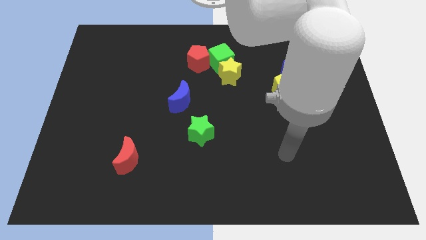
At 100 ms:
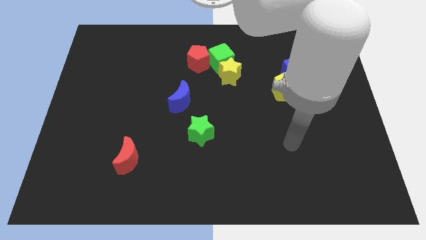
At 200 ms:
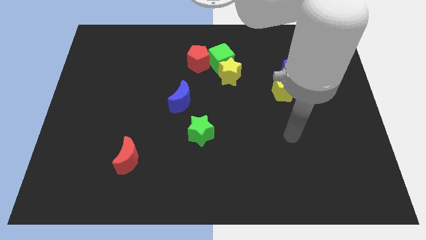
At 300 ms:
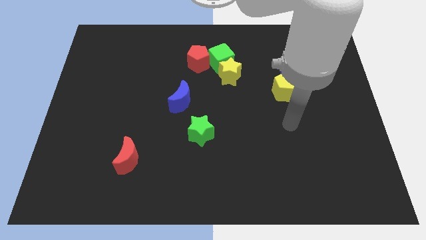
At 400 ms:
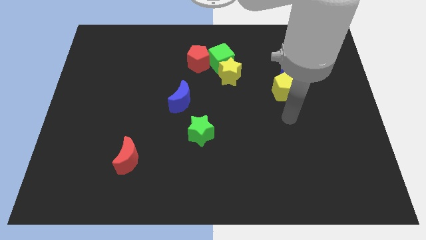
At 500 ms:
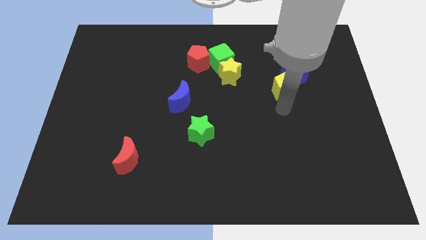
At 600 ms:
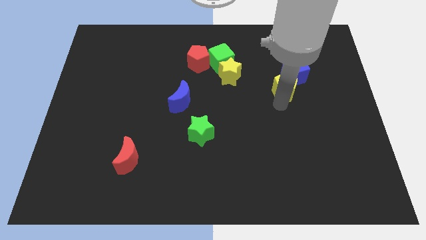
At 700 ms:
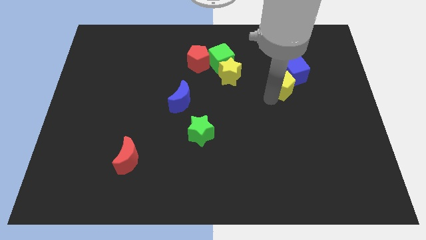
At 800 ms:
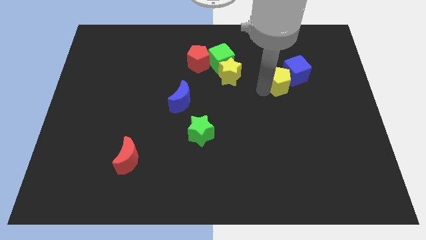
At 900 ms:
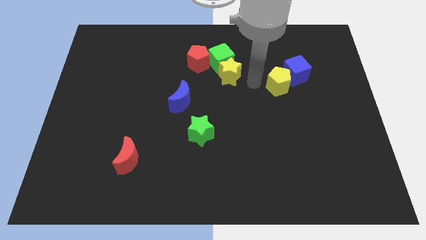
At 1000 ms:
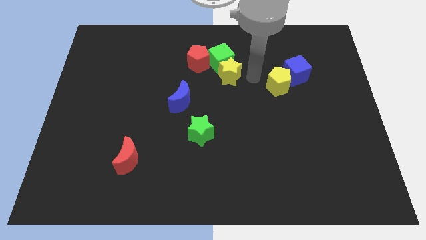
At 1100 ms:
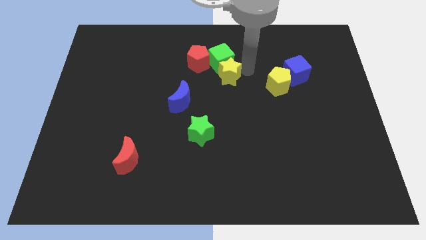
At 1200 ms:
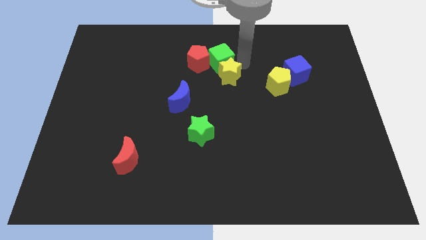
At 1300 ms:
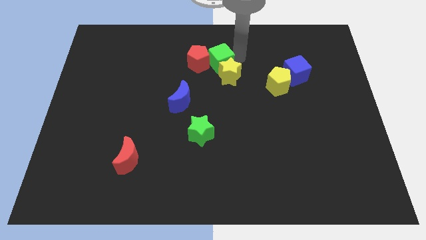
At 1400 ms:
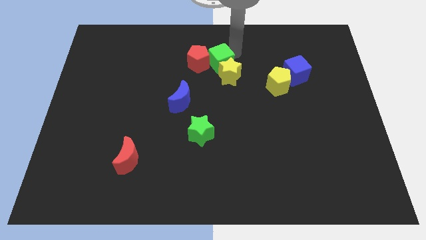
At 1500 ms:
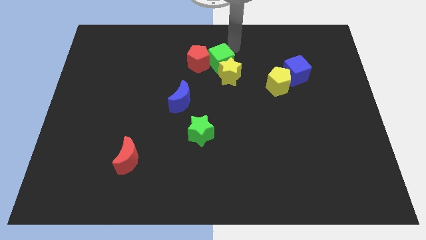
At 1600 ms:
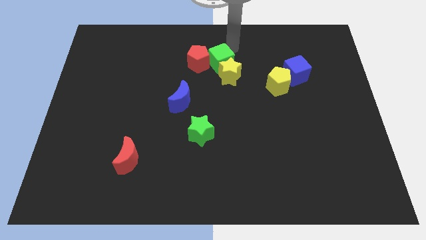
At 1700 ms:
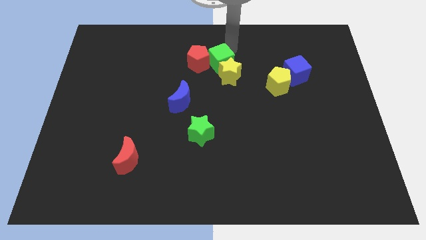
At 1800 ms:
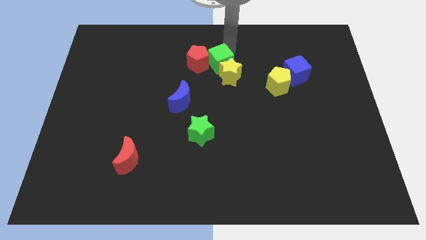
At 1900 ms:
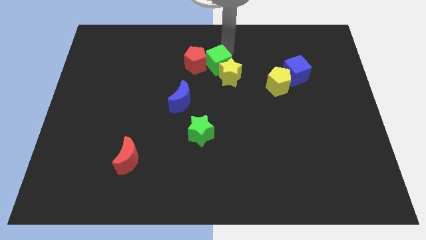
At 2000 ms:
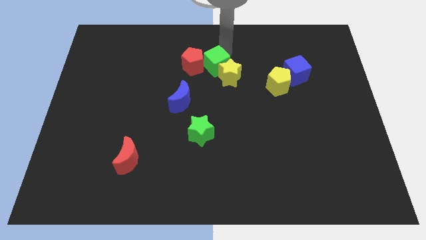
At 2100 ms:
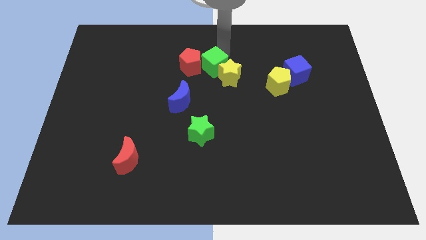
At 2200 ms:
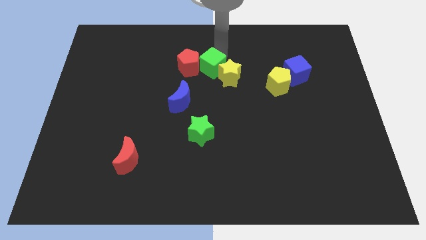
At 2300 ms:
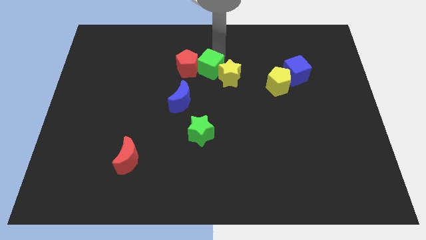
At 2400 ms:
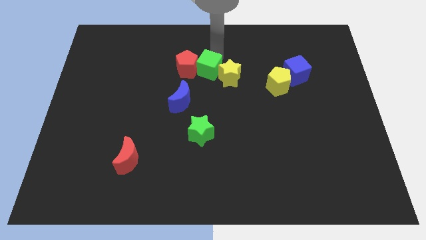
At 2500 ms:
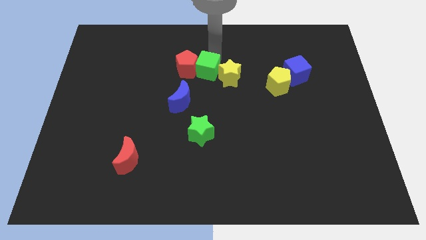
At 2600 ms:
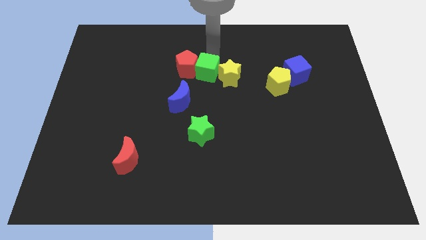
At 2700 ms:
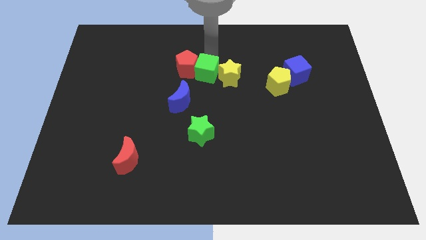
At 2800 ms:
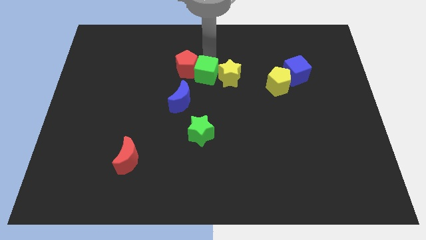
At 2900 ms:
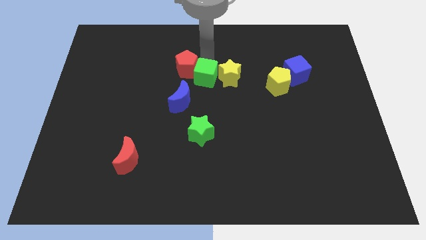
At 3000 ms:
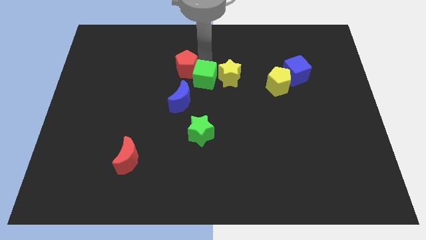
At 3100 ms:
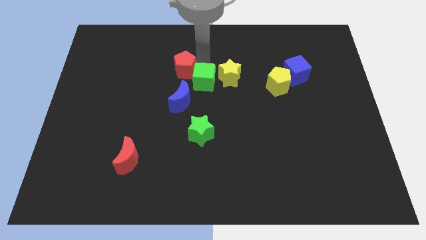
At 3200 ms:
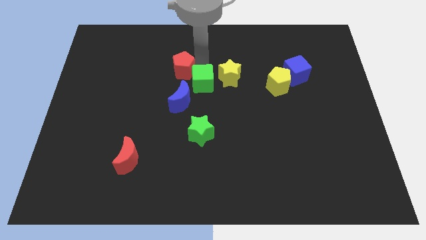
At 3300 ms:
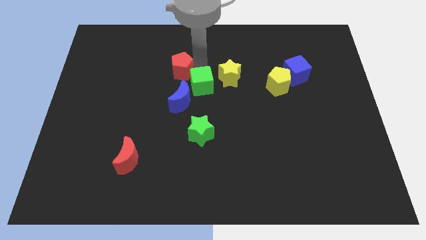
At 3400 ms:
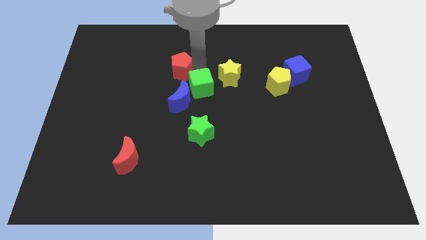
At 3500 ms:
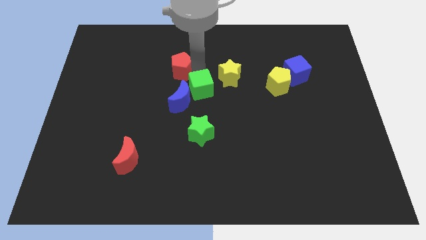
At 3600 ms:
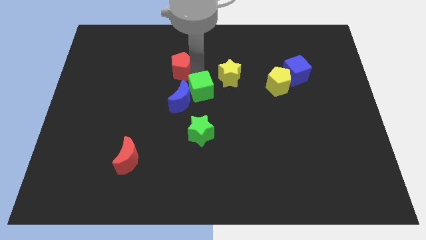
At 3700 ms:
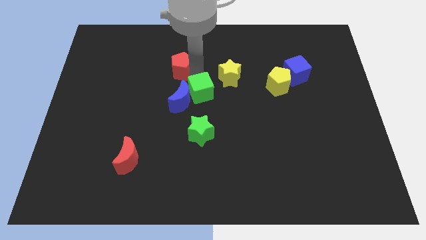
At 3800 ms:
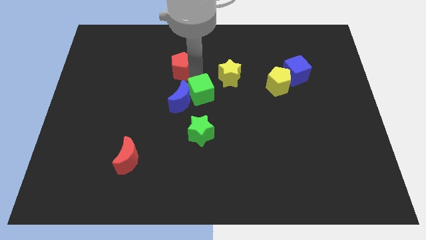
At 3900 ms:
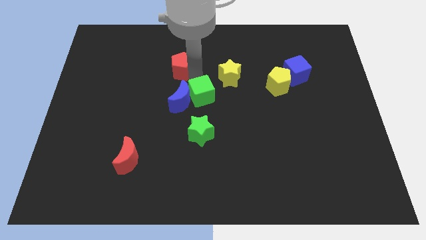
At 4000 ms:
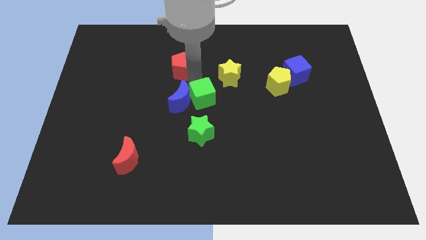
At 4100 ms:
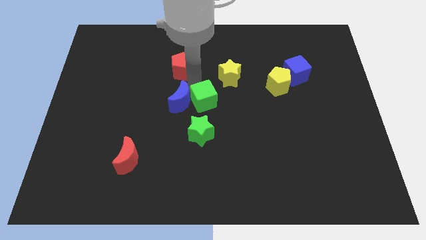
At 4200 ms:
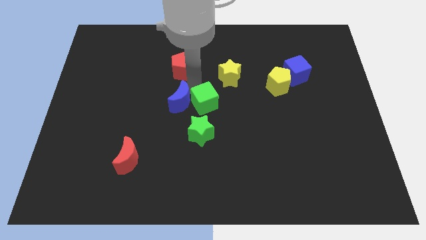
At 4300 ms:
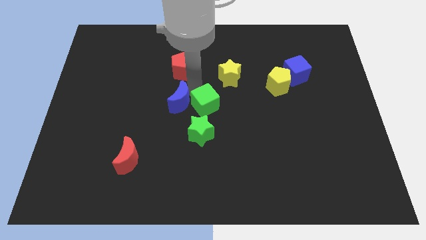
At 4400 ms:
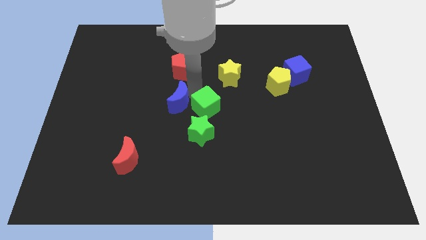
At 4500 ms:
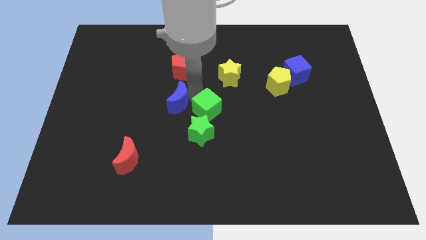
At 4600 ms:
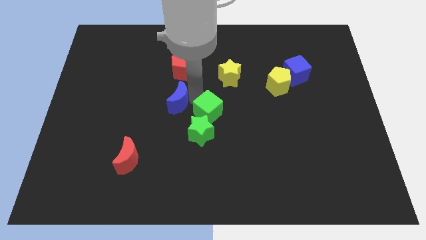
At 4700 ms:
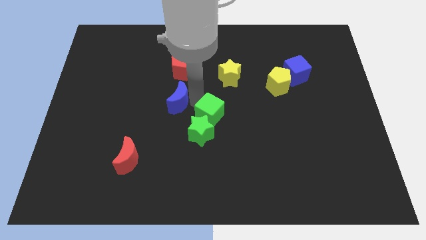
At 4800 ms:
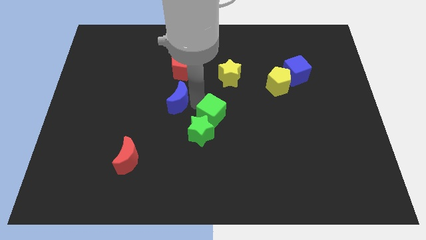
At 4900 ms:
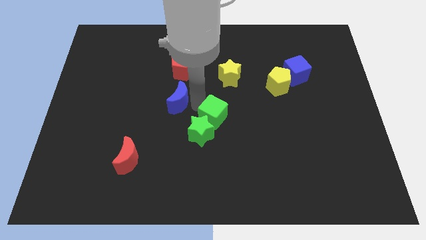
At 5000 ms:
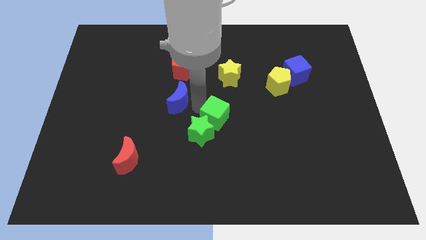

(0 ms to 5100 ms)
slide the green cube to the right side of the green star

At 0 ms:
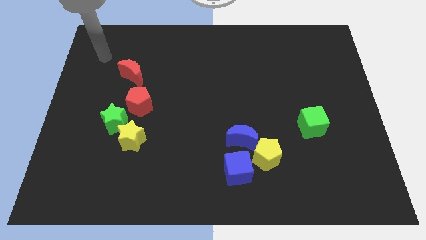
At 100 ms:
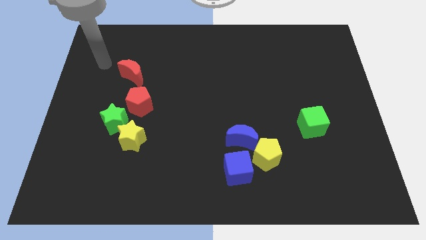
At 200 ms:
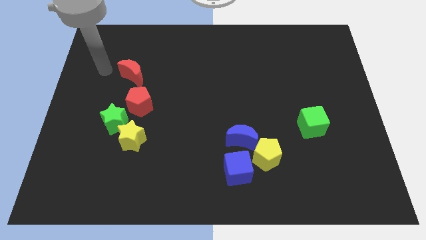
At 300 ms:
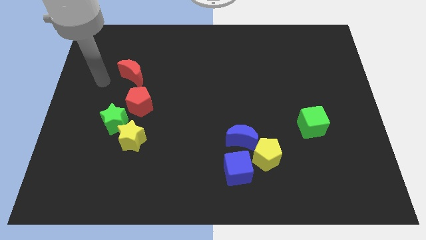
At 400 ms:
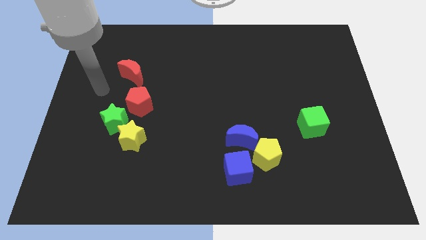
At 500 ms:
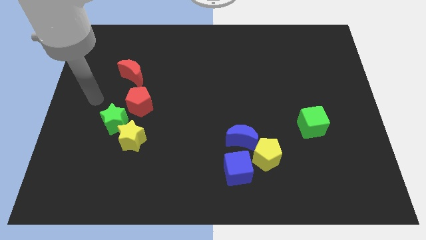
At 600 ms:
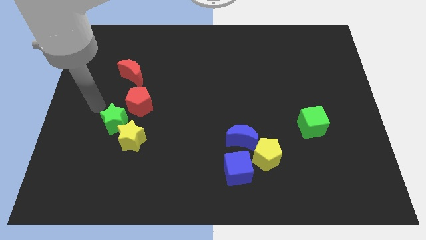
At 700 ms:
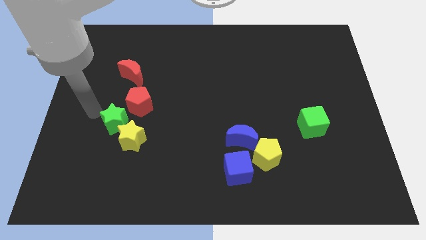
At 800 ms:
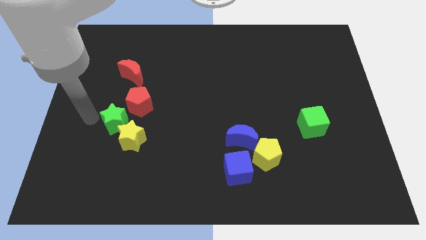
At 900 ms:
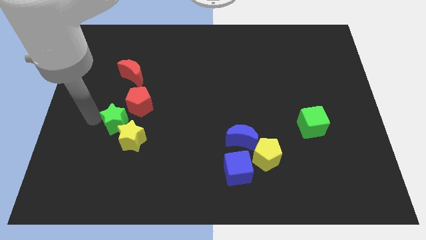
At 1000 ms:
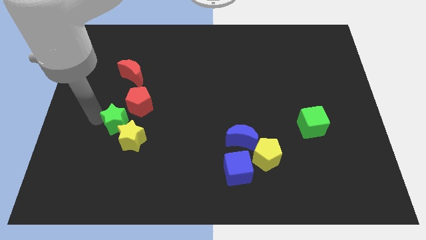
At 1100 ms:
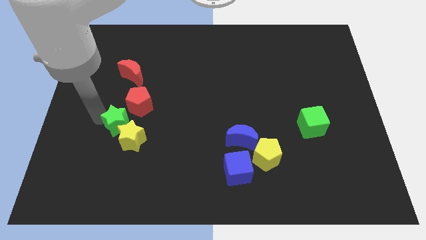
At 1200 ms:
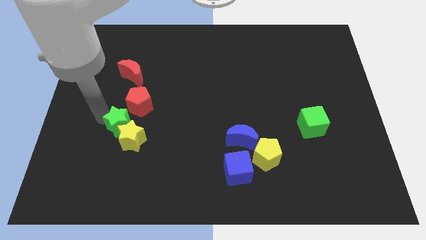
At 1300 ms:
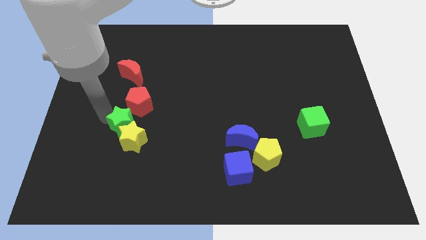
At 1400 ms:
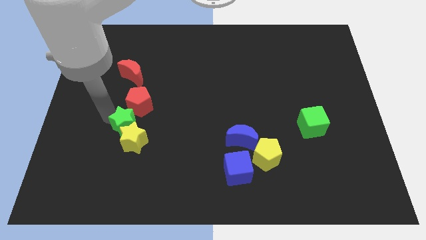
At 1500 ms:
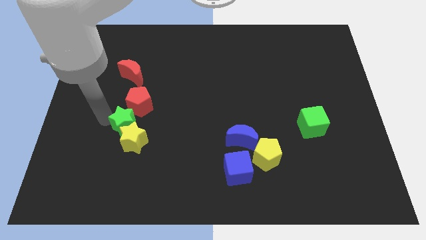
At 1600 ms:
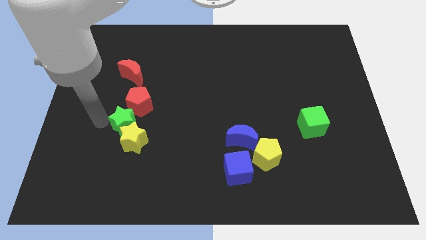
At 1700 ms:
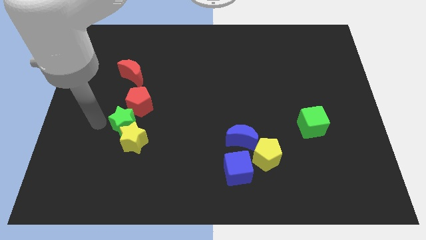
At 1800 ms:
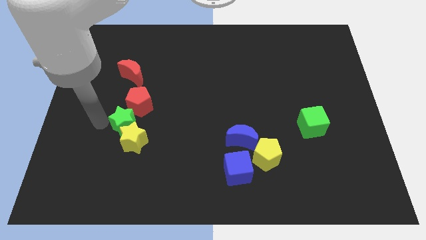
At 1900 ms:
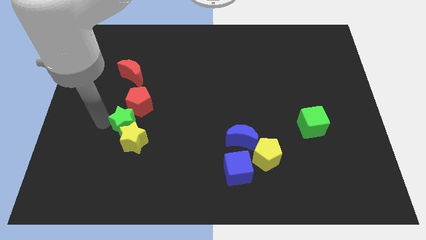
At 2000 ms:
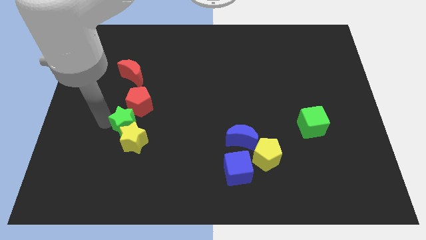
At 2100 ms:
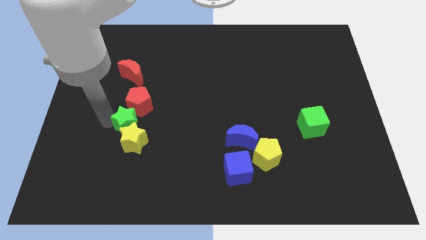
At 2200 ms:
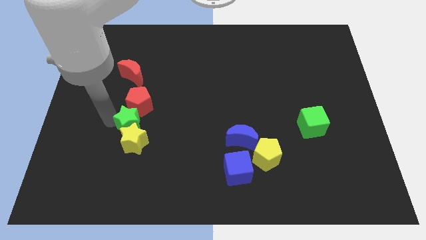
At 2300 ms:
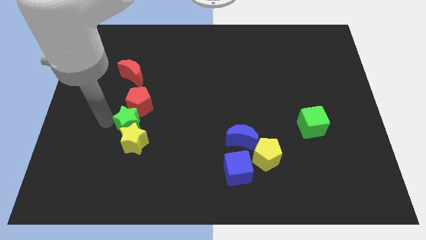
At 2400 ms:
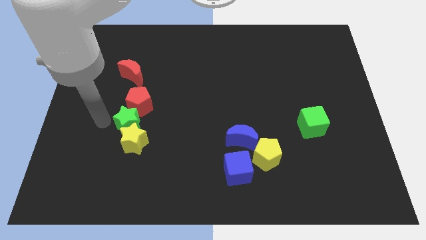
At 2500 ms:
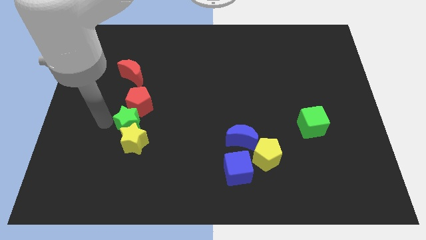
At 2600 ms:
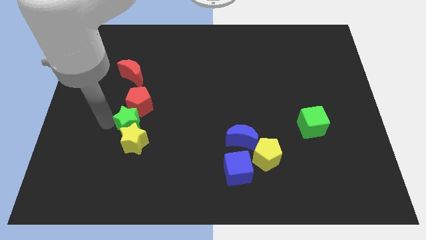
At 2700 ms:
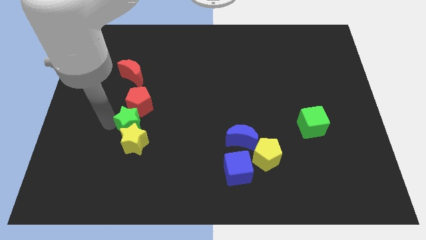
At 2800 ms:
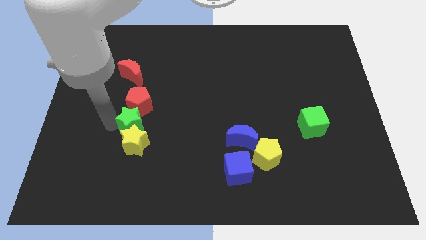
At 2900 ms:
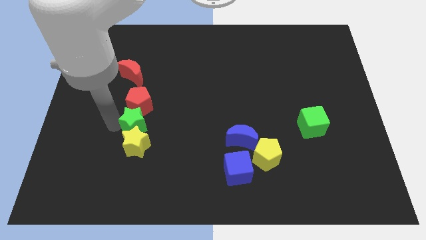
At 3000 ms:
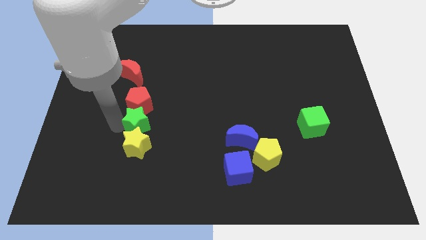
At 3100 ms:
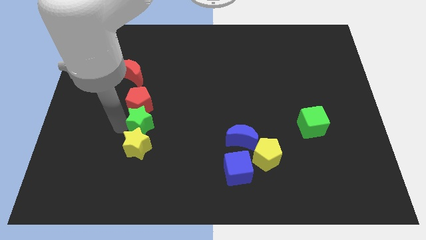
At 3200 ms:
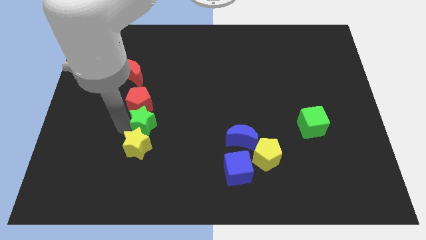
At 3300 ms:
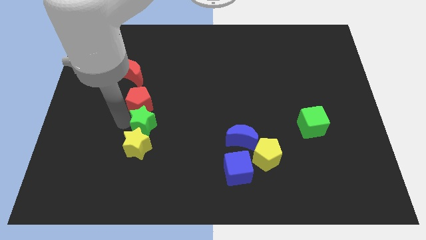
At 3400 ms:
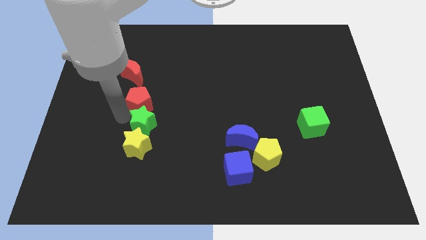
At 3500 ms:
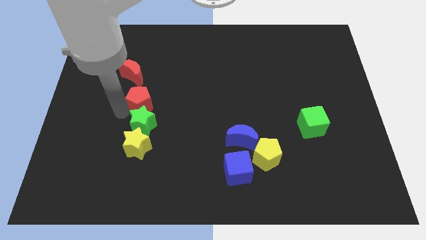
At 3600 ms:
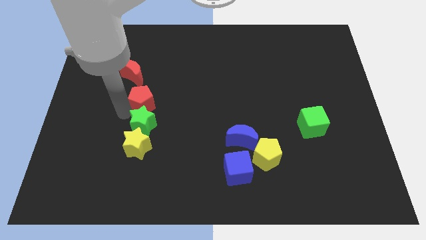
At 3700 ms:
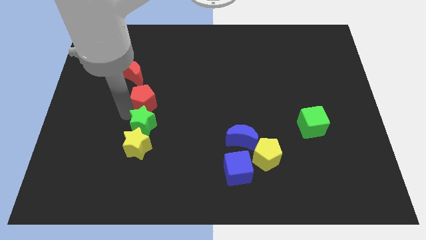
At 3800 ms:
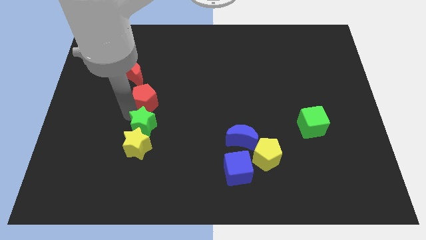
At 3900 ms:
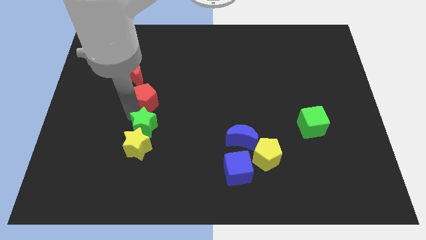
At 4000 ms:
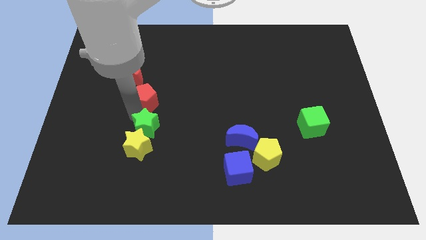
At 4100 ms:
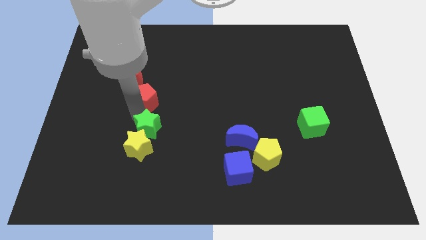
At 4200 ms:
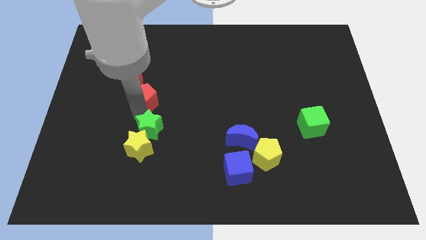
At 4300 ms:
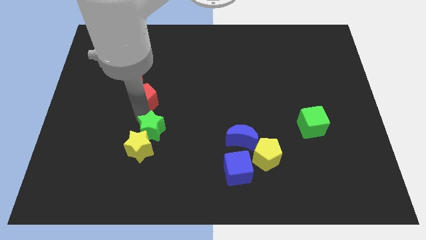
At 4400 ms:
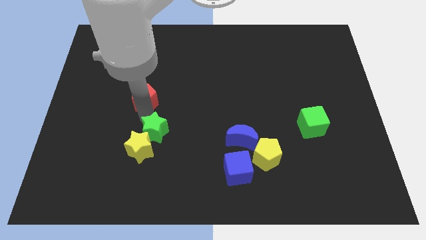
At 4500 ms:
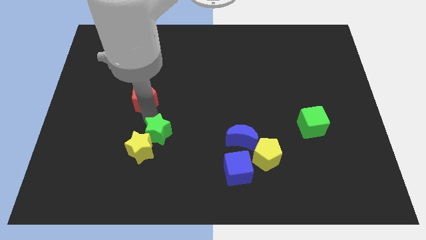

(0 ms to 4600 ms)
push the green star to the right side of the yellow star
